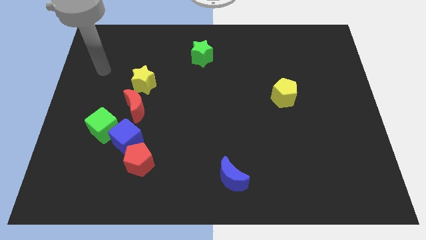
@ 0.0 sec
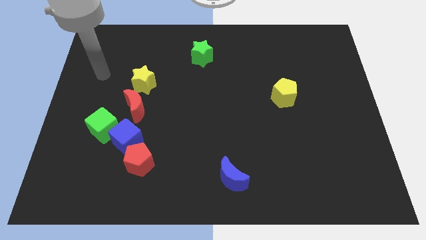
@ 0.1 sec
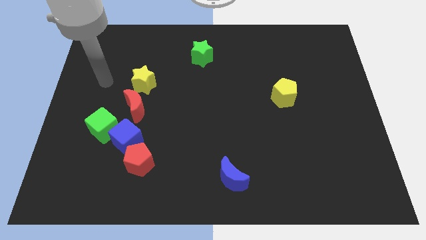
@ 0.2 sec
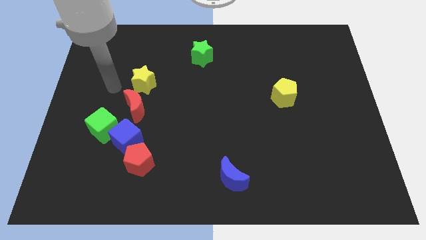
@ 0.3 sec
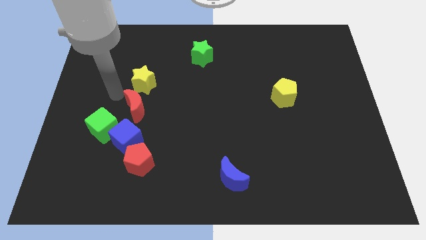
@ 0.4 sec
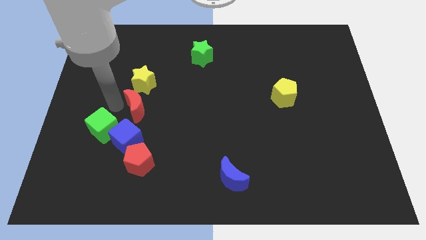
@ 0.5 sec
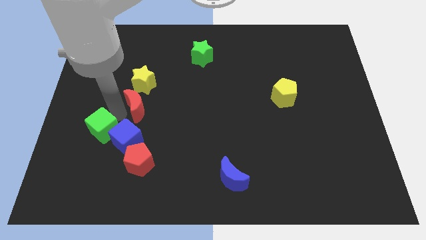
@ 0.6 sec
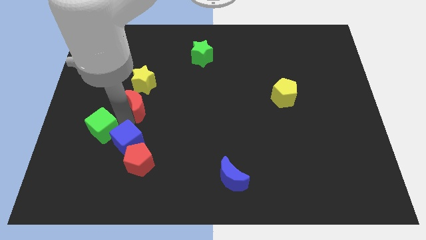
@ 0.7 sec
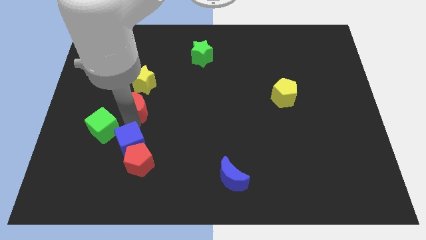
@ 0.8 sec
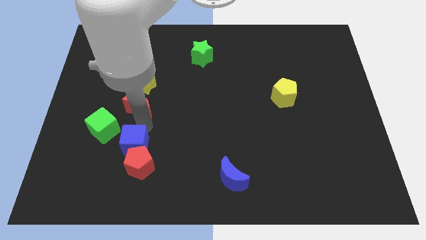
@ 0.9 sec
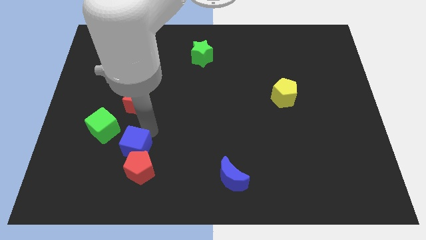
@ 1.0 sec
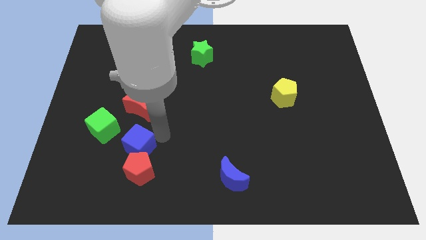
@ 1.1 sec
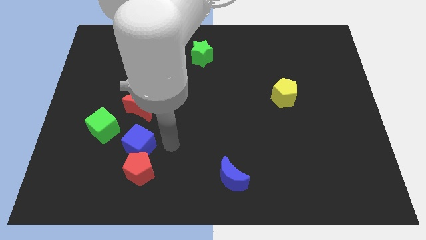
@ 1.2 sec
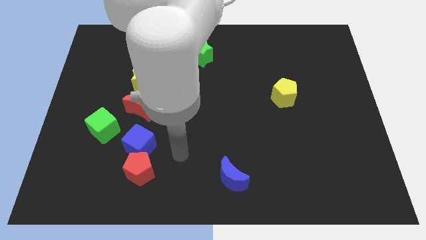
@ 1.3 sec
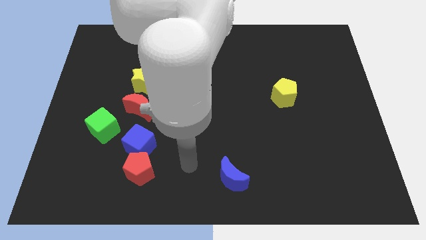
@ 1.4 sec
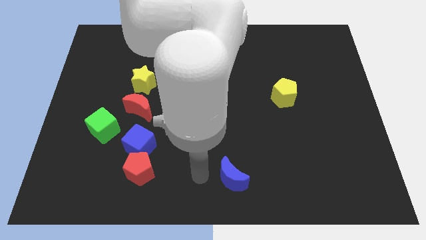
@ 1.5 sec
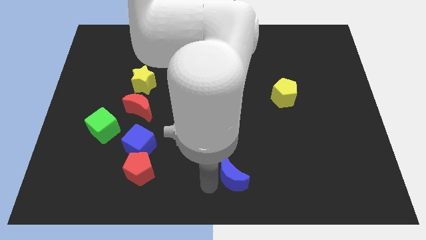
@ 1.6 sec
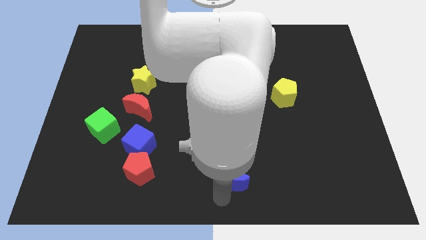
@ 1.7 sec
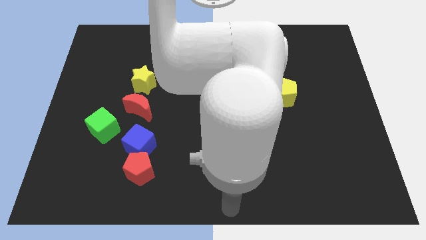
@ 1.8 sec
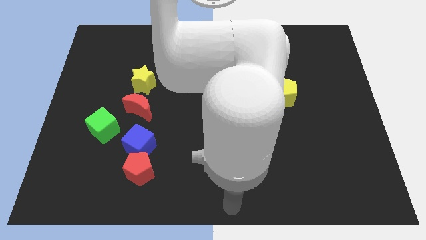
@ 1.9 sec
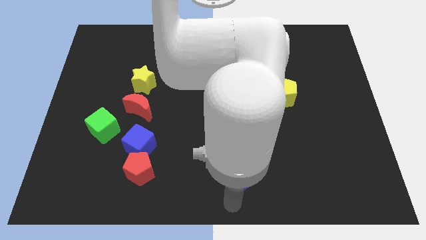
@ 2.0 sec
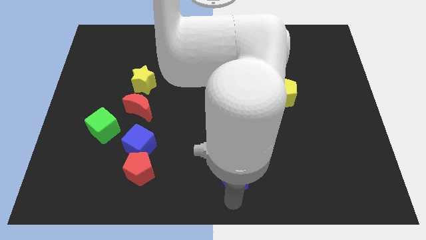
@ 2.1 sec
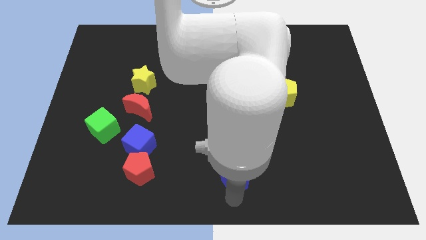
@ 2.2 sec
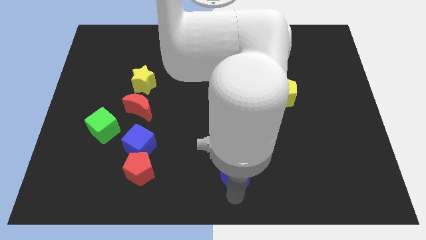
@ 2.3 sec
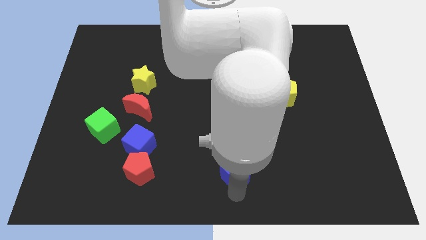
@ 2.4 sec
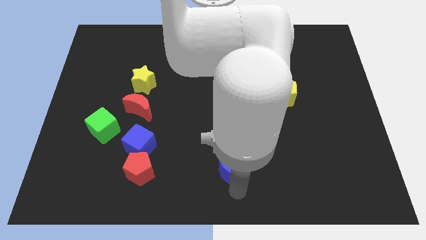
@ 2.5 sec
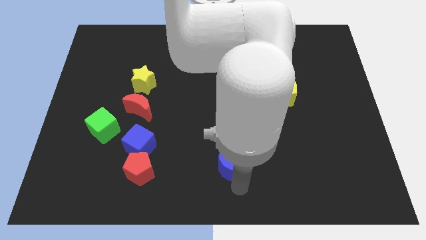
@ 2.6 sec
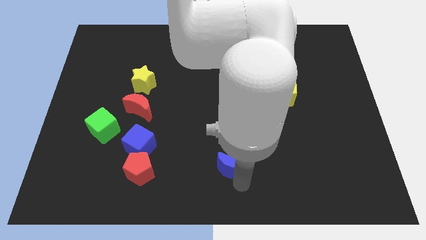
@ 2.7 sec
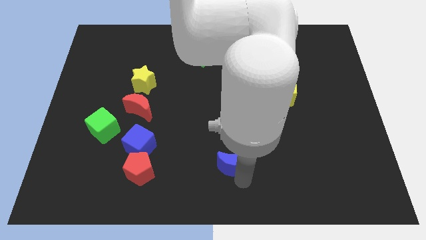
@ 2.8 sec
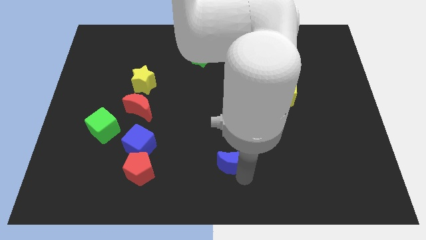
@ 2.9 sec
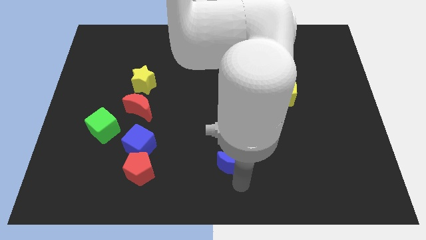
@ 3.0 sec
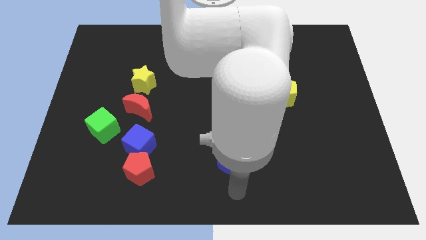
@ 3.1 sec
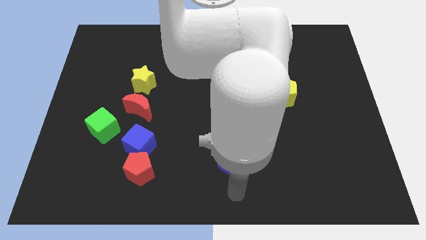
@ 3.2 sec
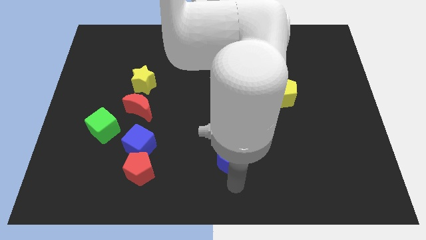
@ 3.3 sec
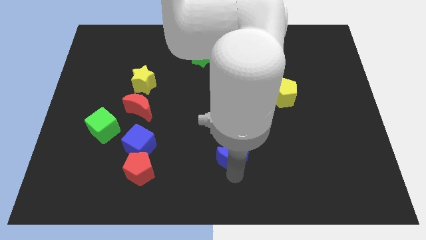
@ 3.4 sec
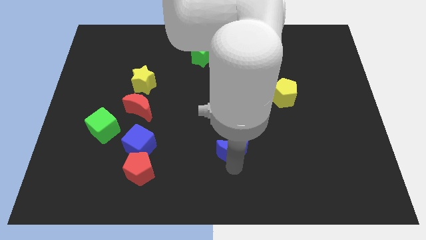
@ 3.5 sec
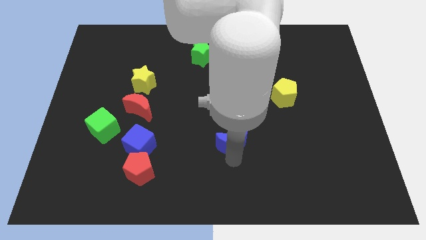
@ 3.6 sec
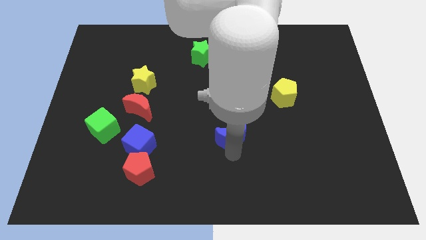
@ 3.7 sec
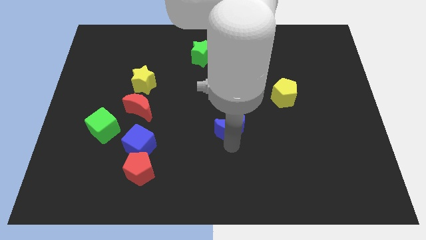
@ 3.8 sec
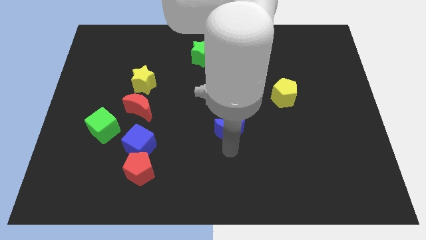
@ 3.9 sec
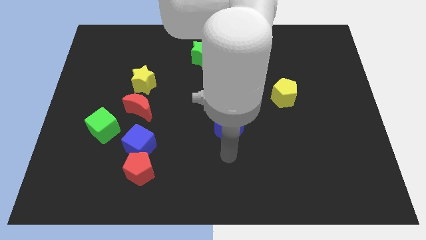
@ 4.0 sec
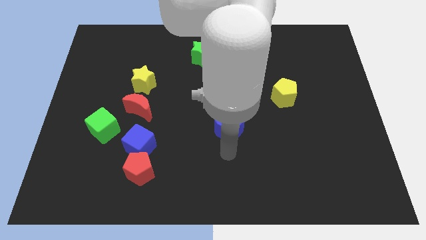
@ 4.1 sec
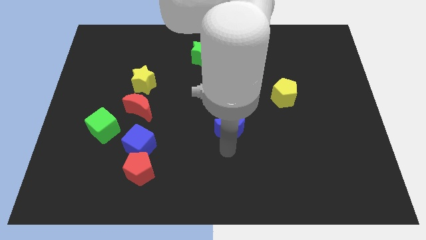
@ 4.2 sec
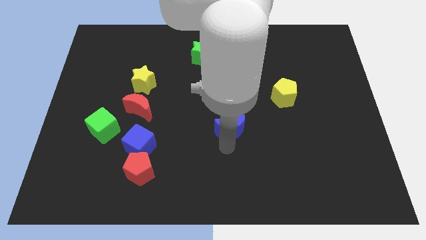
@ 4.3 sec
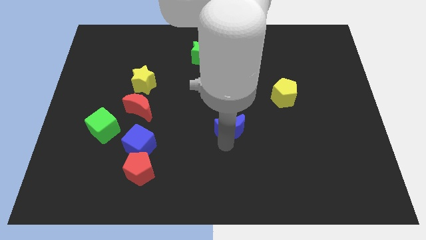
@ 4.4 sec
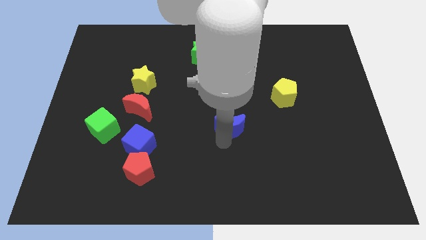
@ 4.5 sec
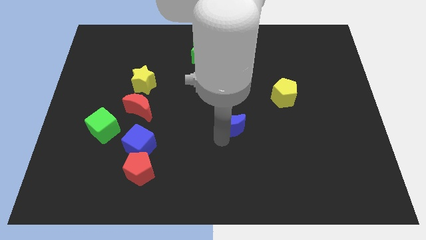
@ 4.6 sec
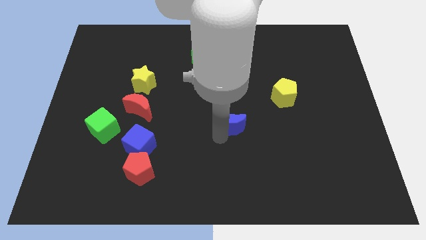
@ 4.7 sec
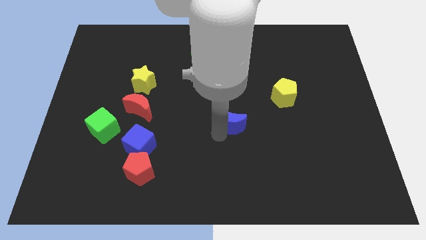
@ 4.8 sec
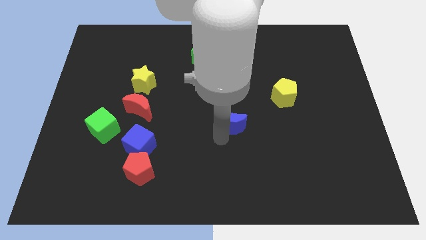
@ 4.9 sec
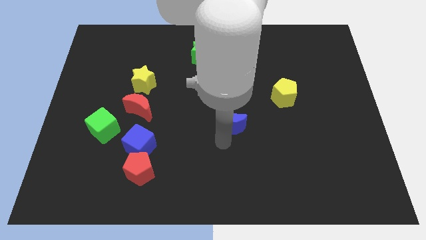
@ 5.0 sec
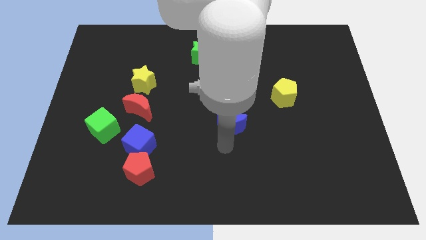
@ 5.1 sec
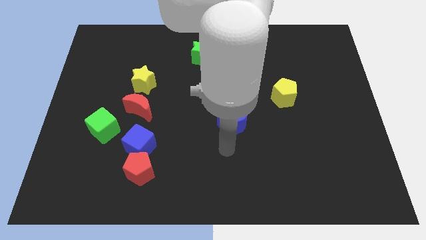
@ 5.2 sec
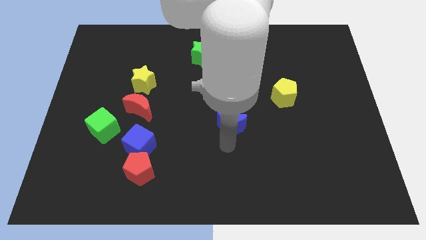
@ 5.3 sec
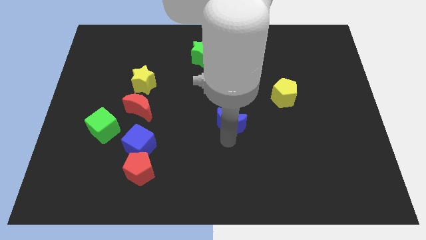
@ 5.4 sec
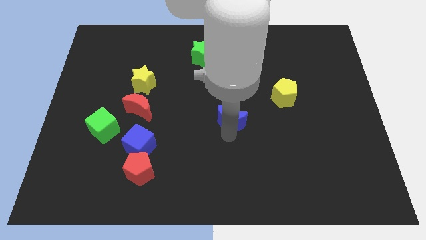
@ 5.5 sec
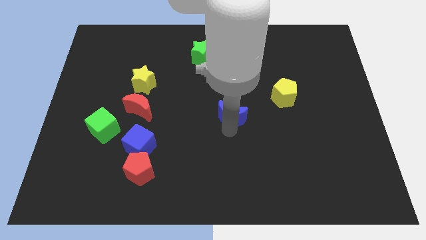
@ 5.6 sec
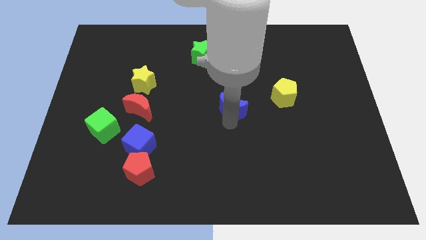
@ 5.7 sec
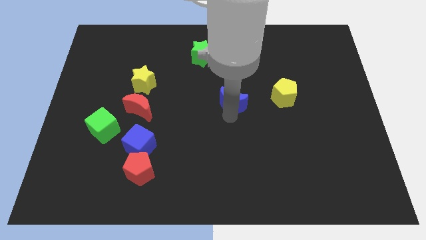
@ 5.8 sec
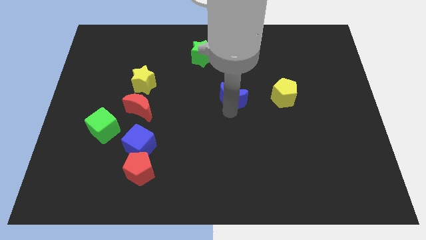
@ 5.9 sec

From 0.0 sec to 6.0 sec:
move the blue moon up

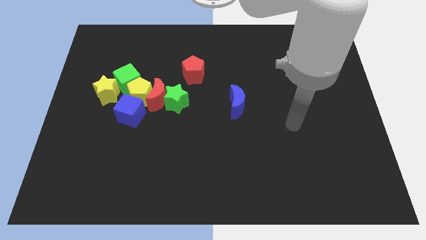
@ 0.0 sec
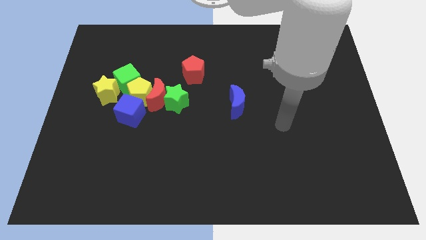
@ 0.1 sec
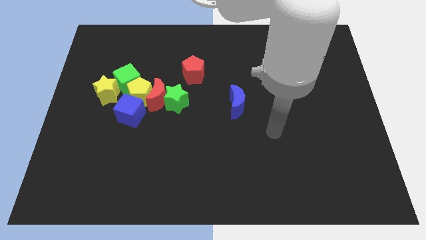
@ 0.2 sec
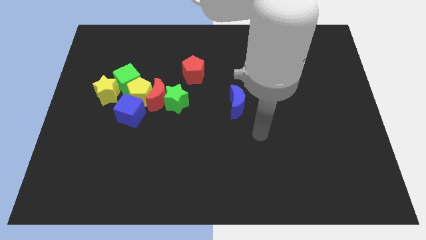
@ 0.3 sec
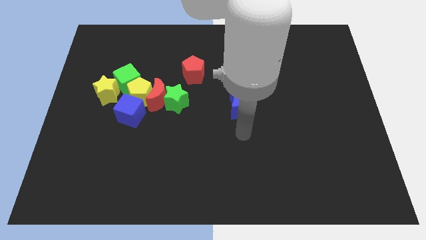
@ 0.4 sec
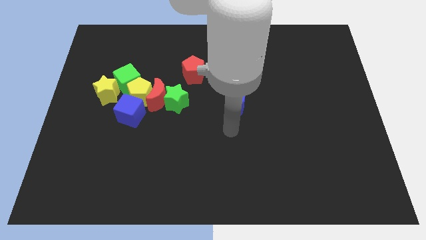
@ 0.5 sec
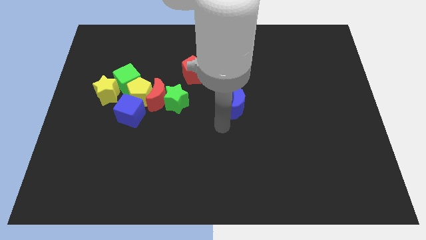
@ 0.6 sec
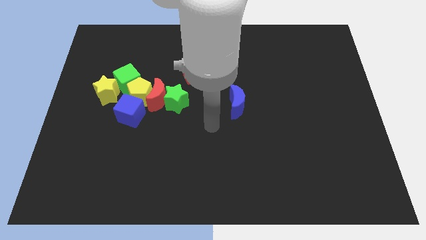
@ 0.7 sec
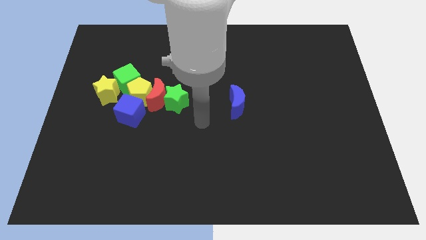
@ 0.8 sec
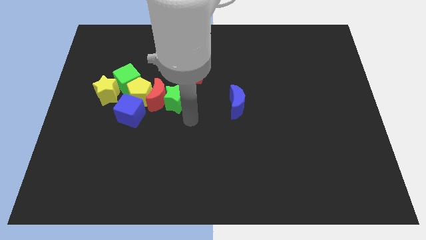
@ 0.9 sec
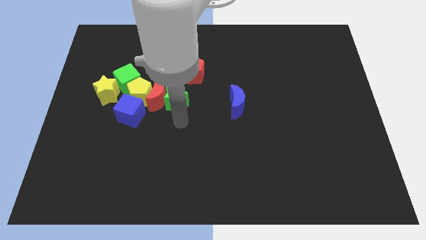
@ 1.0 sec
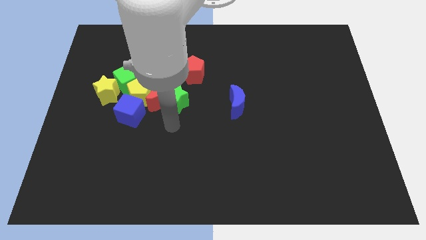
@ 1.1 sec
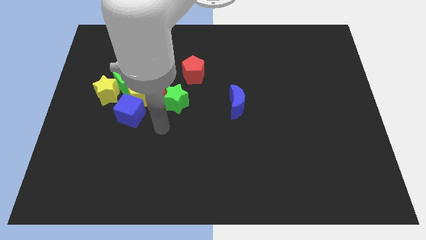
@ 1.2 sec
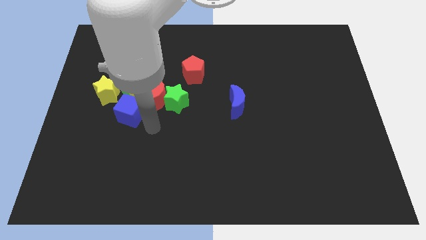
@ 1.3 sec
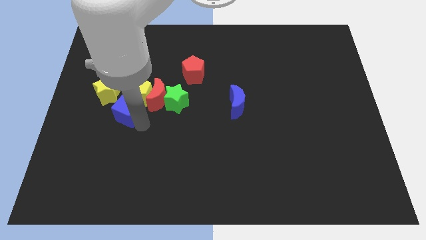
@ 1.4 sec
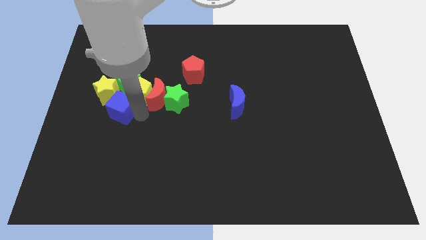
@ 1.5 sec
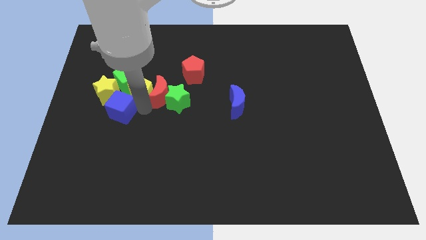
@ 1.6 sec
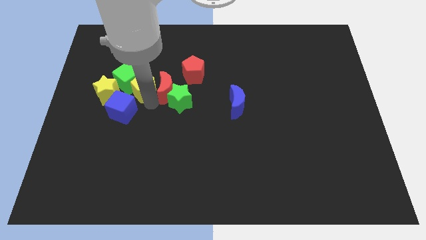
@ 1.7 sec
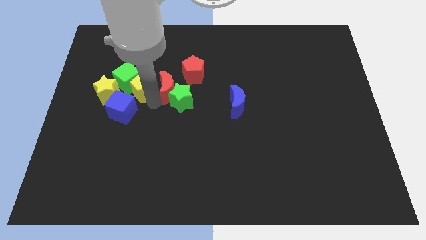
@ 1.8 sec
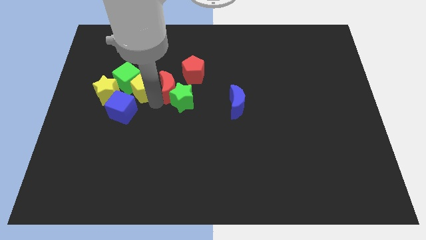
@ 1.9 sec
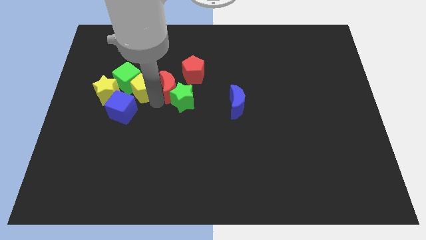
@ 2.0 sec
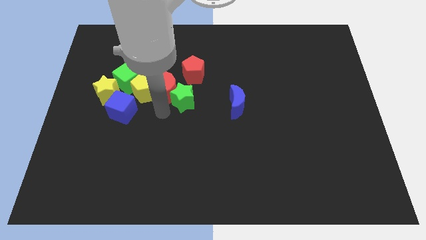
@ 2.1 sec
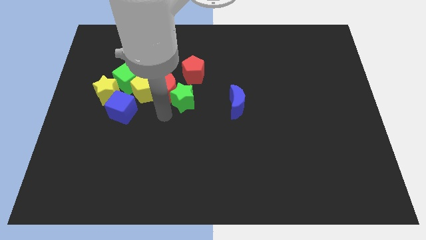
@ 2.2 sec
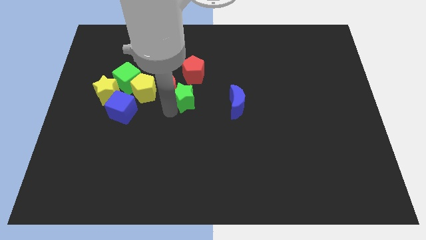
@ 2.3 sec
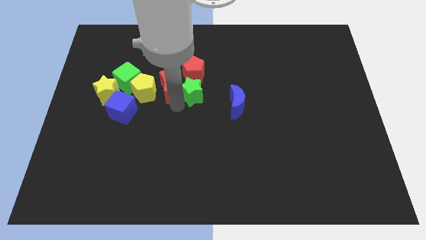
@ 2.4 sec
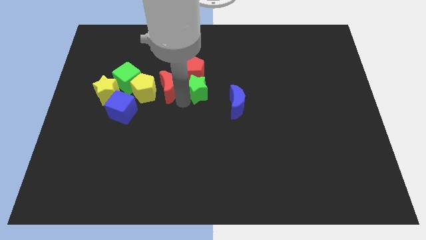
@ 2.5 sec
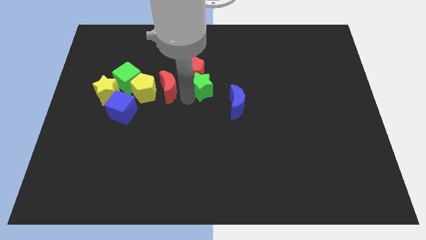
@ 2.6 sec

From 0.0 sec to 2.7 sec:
slightly slide the green star diagonally upwards and to the right
